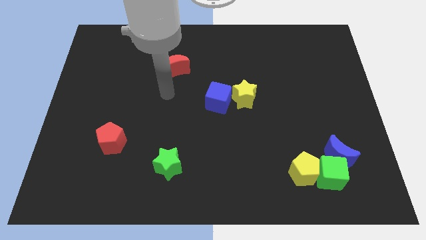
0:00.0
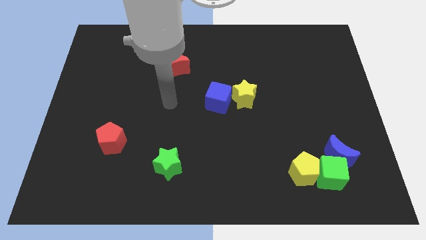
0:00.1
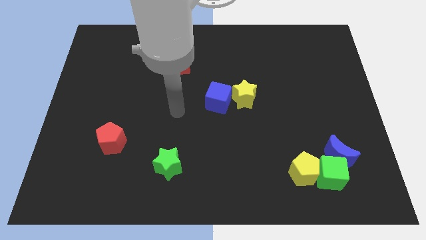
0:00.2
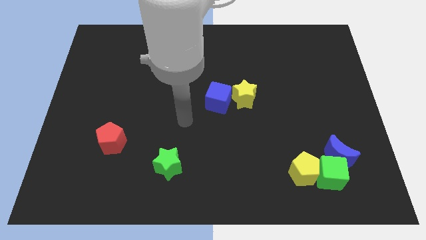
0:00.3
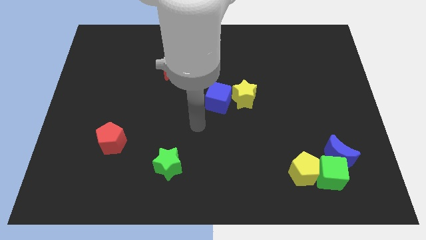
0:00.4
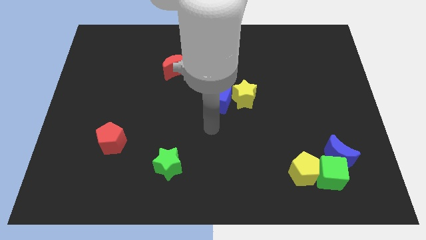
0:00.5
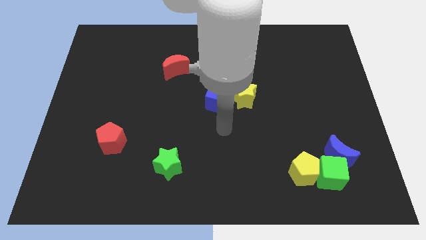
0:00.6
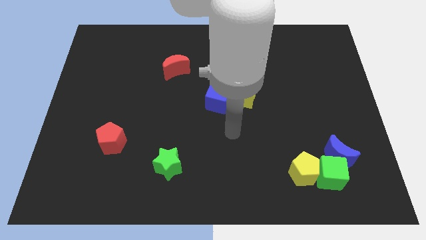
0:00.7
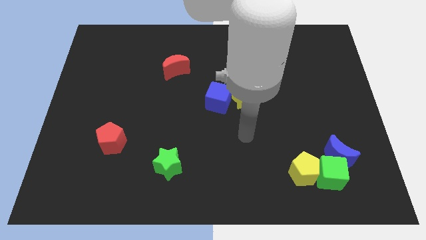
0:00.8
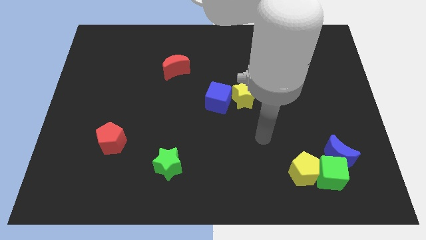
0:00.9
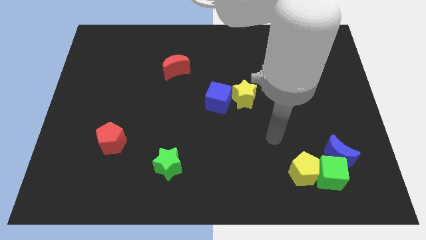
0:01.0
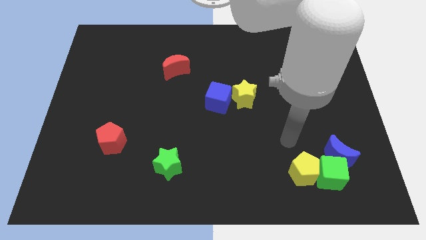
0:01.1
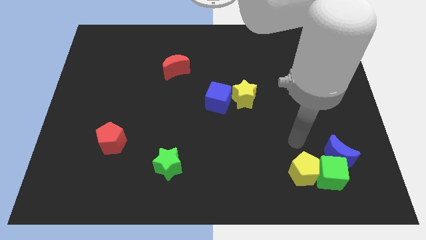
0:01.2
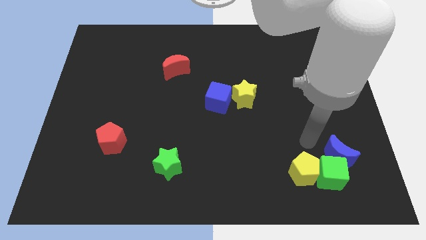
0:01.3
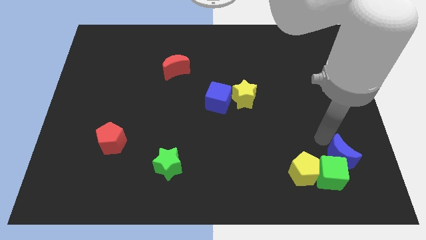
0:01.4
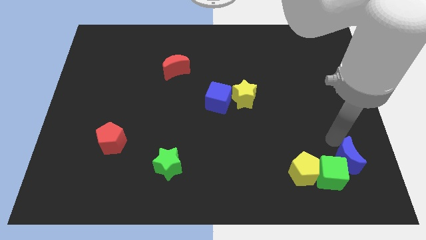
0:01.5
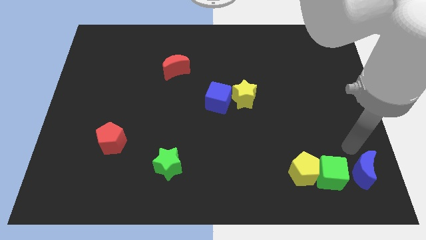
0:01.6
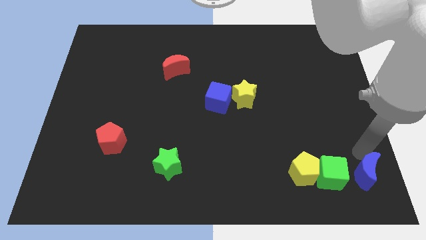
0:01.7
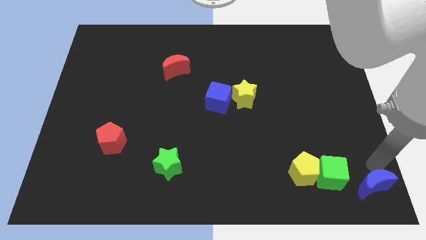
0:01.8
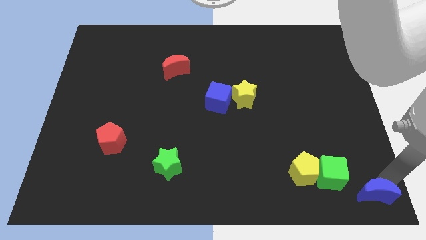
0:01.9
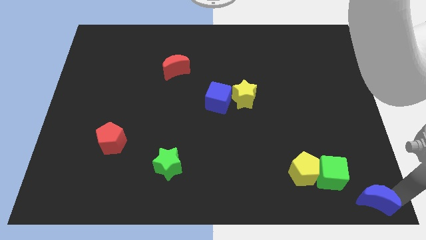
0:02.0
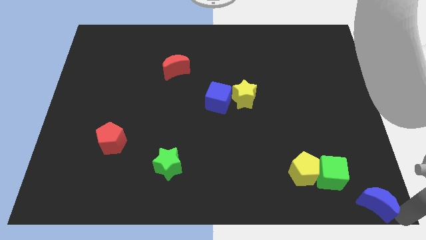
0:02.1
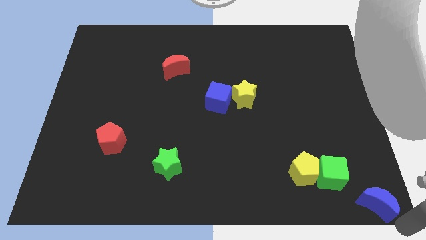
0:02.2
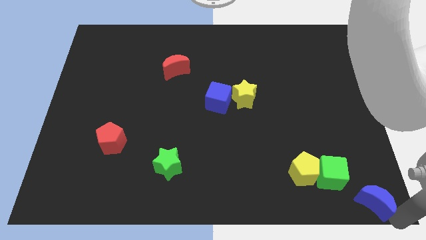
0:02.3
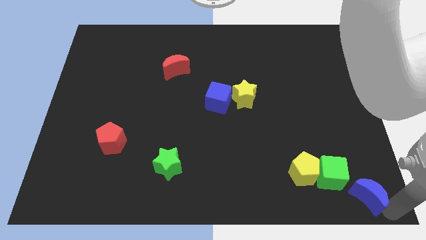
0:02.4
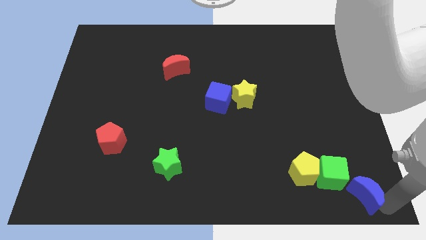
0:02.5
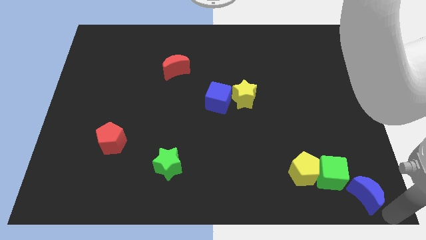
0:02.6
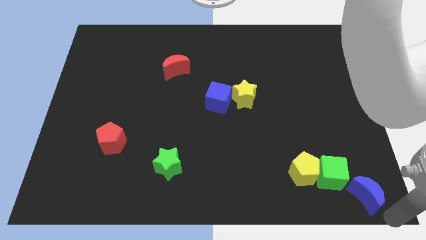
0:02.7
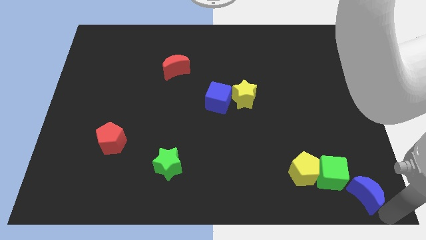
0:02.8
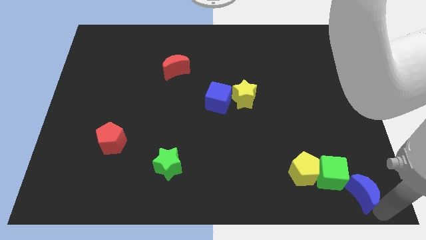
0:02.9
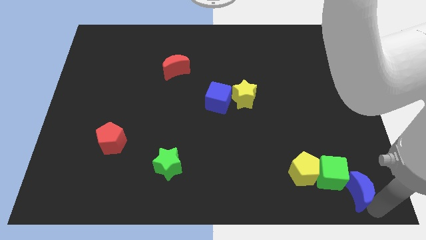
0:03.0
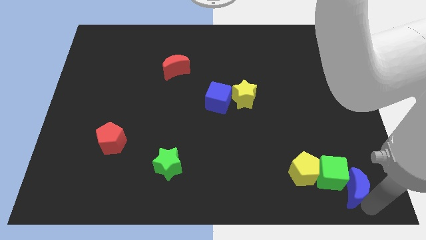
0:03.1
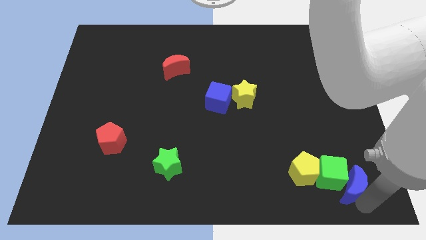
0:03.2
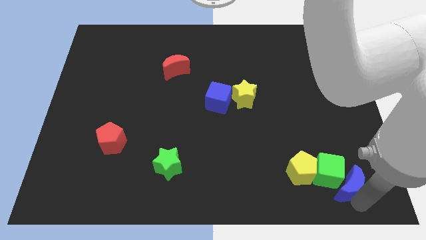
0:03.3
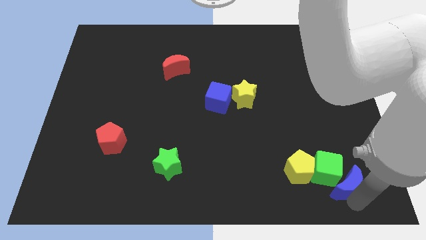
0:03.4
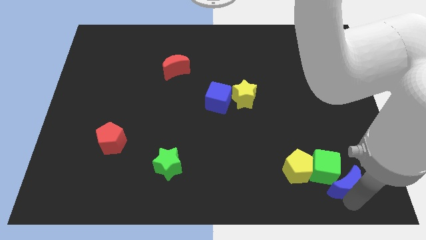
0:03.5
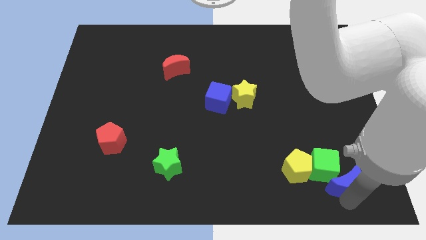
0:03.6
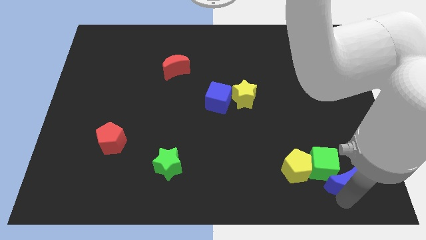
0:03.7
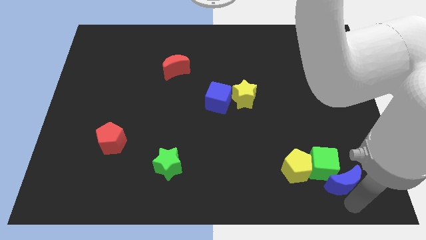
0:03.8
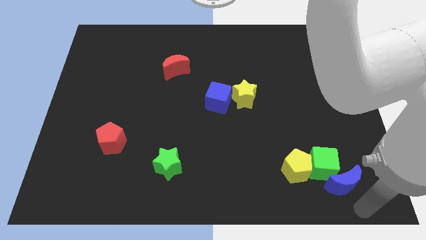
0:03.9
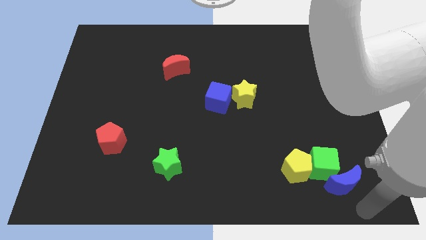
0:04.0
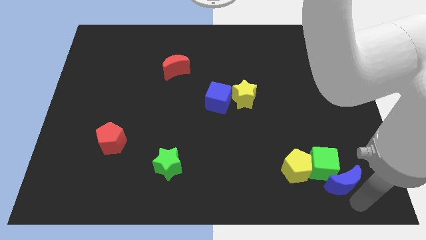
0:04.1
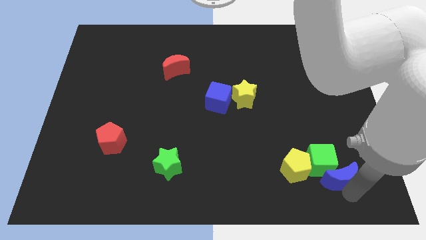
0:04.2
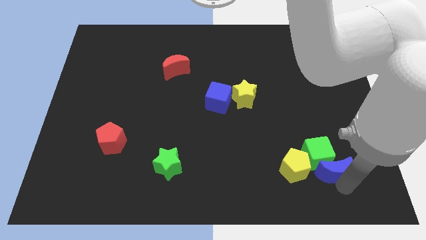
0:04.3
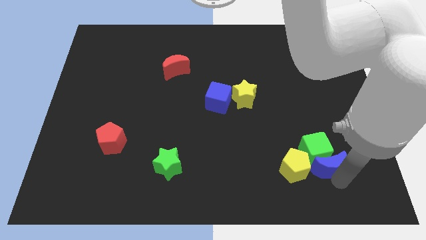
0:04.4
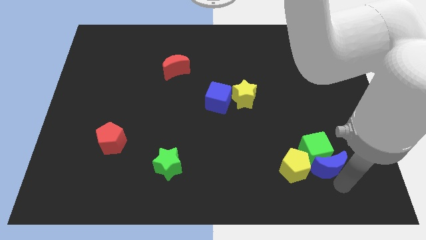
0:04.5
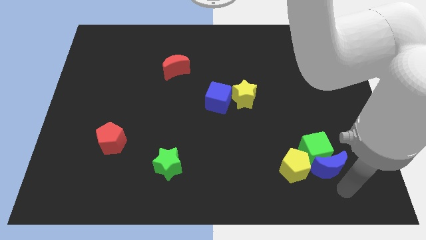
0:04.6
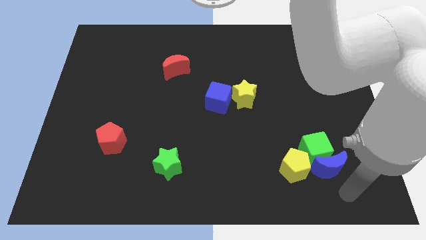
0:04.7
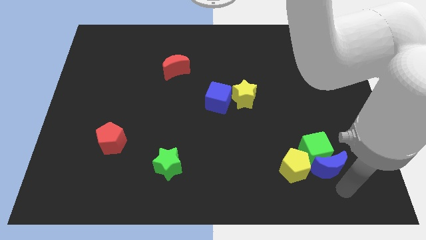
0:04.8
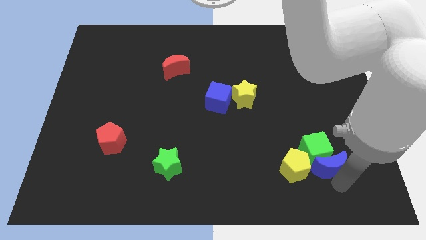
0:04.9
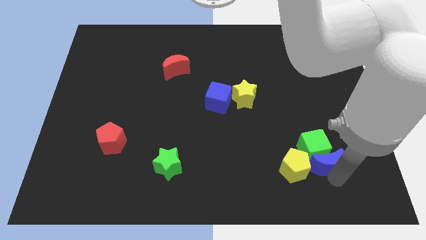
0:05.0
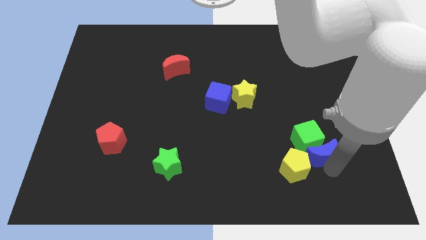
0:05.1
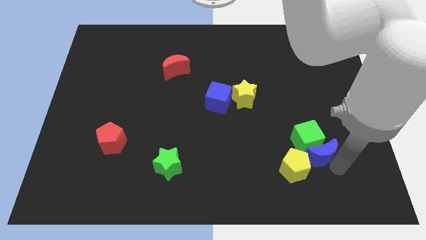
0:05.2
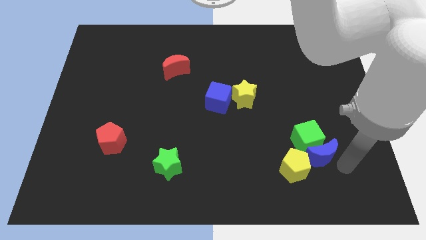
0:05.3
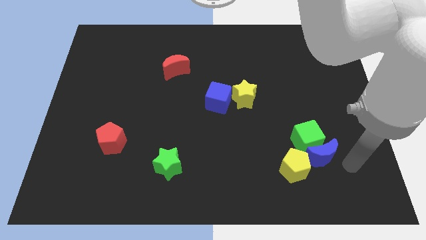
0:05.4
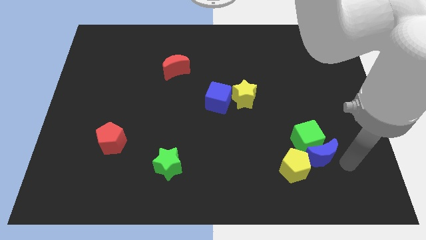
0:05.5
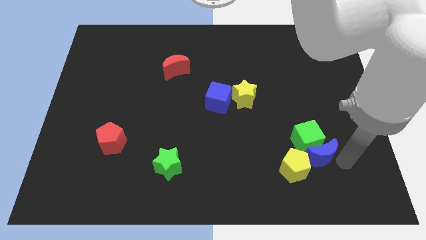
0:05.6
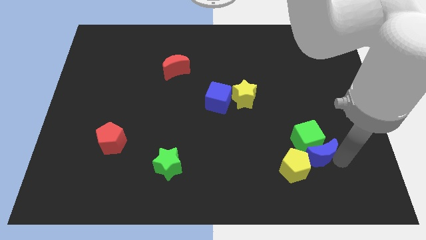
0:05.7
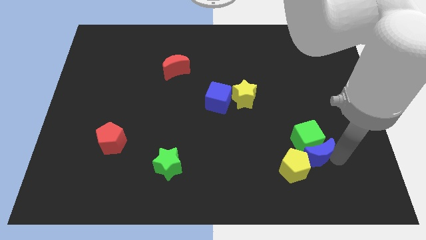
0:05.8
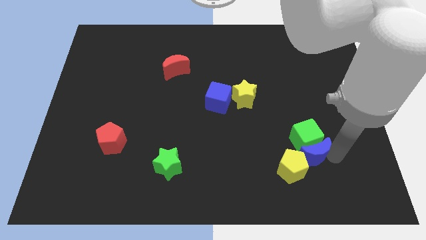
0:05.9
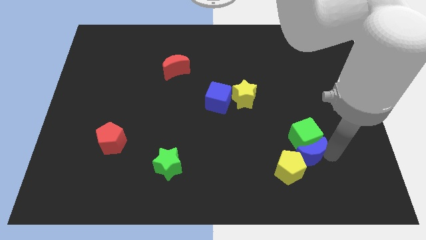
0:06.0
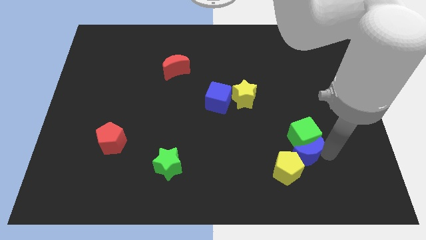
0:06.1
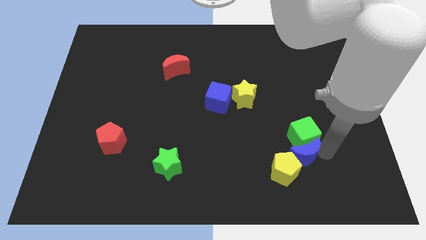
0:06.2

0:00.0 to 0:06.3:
move the blue moon somewhat to the left

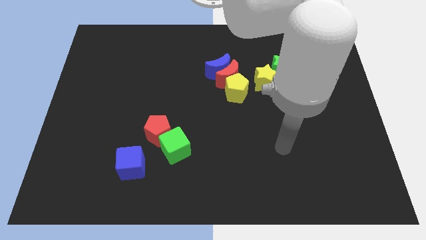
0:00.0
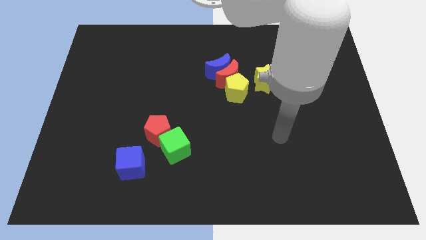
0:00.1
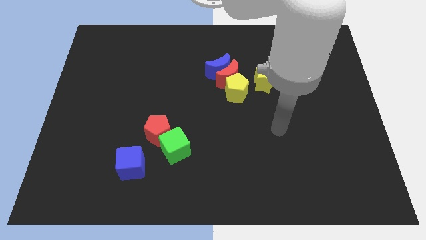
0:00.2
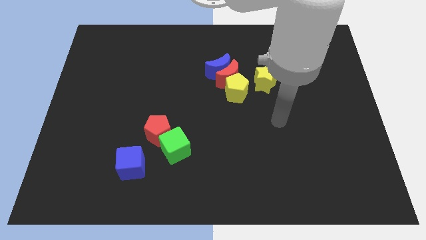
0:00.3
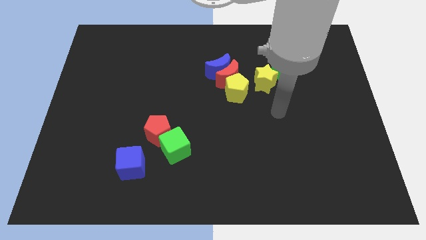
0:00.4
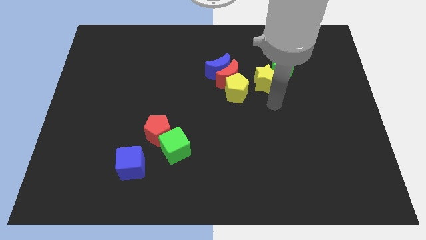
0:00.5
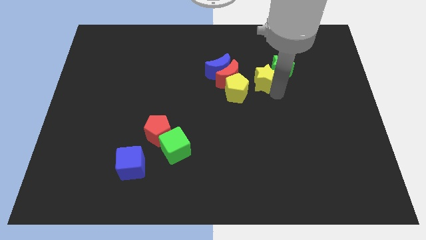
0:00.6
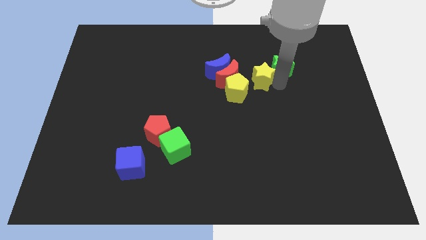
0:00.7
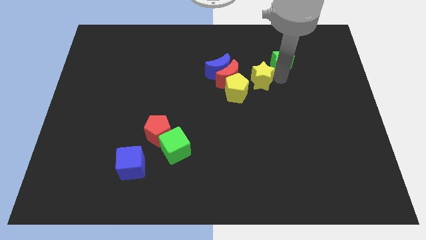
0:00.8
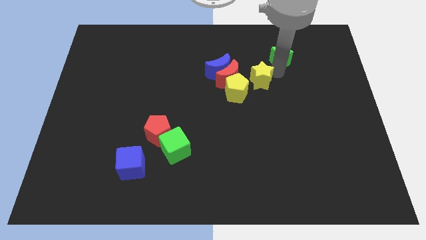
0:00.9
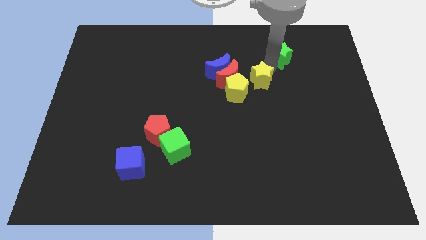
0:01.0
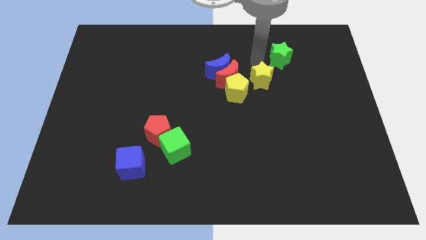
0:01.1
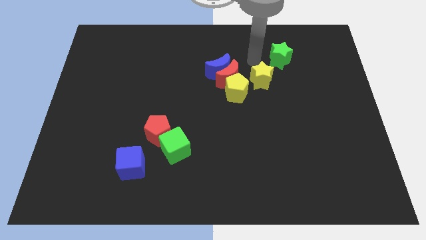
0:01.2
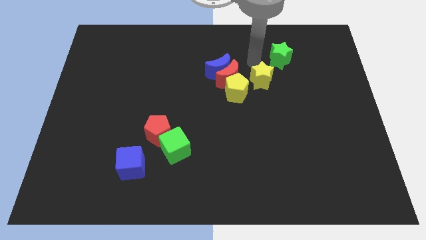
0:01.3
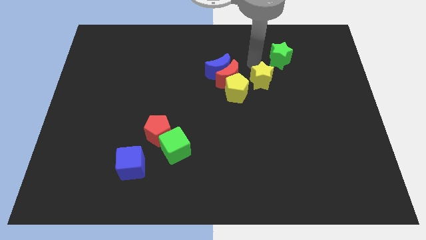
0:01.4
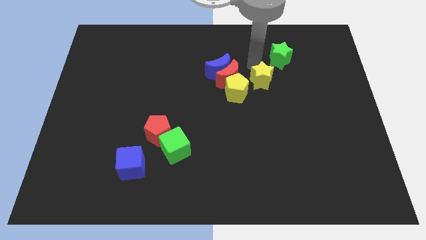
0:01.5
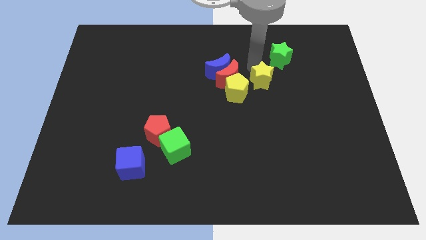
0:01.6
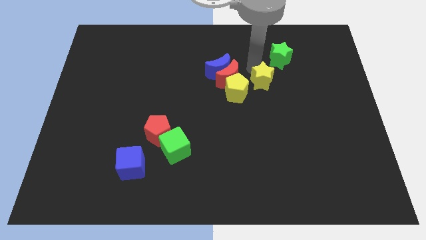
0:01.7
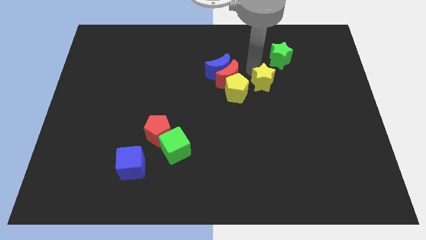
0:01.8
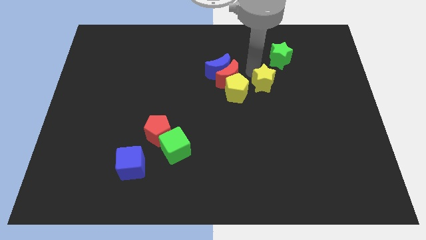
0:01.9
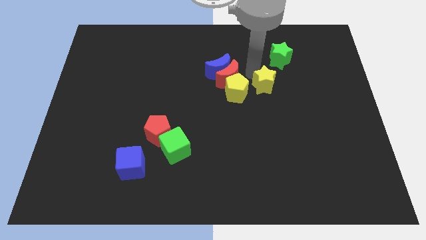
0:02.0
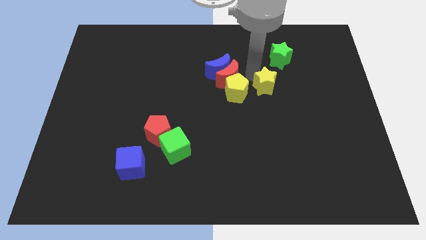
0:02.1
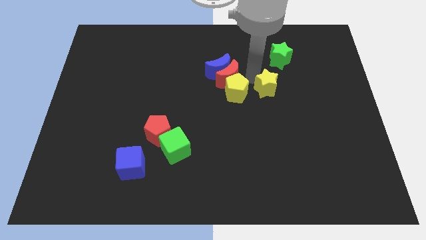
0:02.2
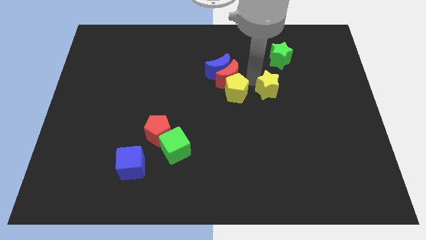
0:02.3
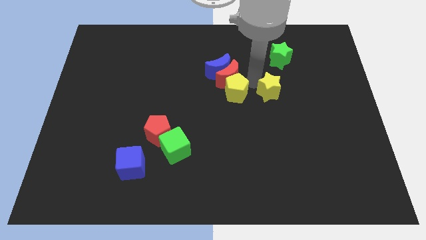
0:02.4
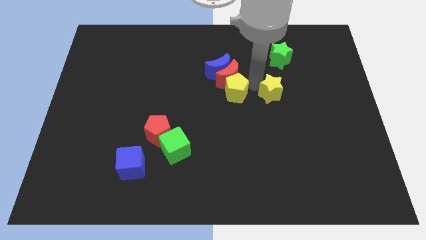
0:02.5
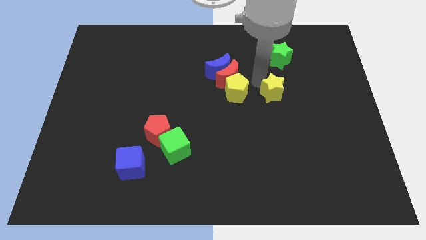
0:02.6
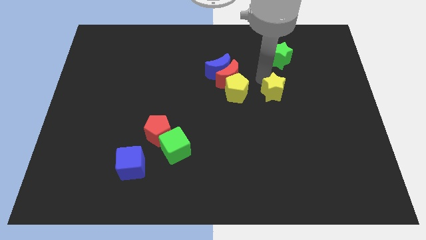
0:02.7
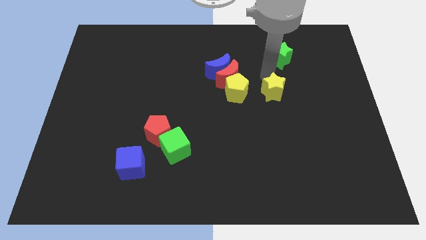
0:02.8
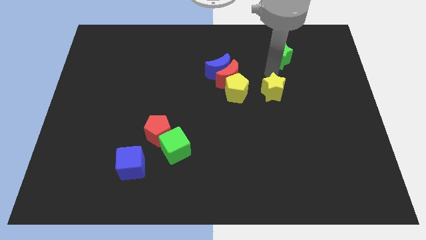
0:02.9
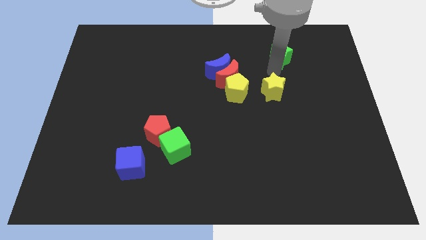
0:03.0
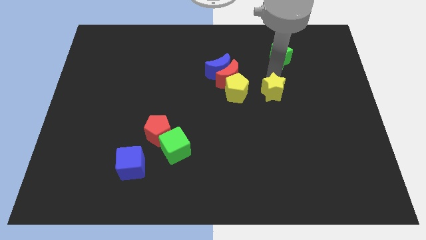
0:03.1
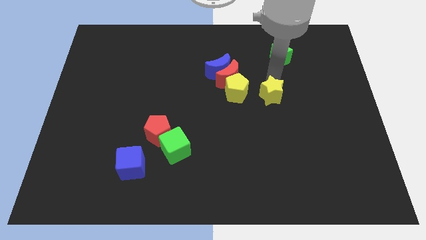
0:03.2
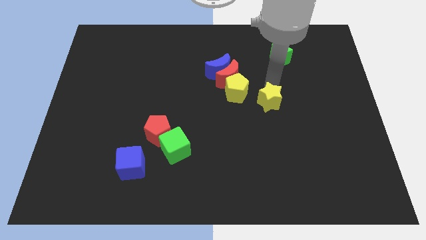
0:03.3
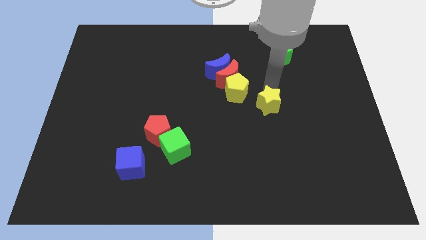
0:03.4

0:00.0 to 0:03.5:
slightly slide the yellow star downwards
